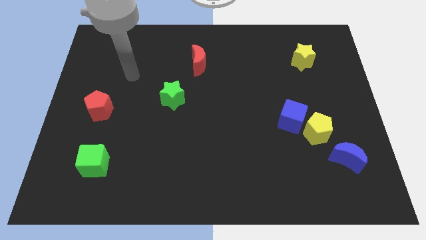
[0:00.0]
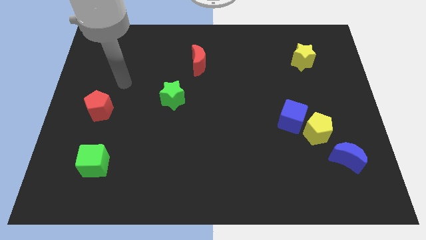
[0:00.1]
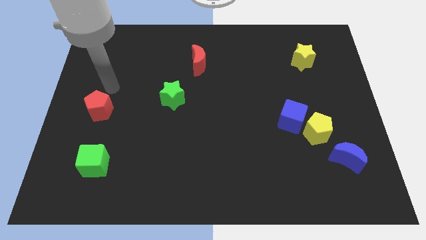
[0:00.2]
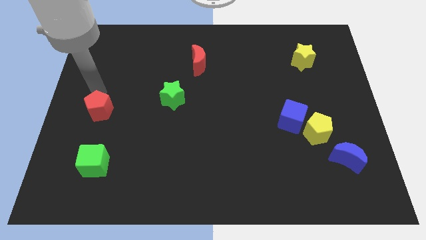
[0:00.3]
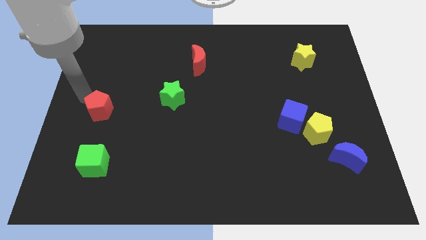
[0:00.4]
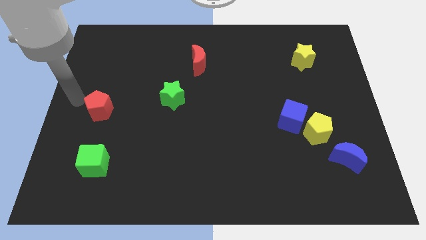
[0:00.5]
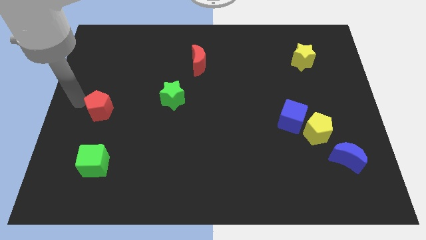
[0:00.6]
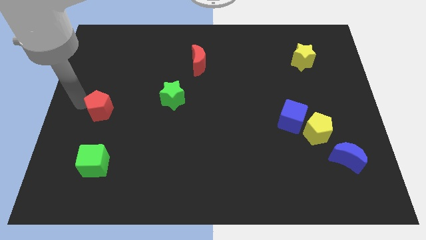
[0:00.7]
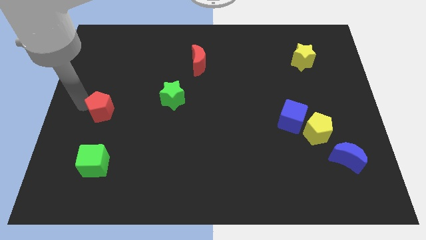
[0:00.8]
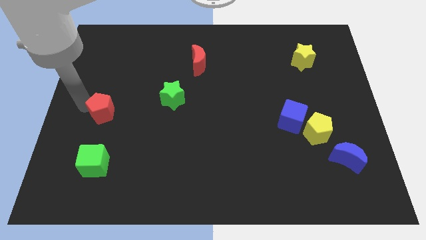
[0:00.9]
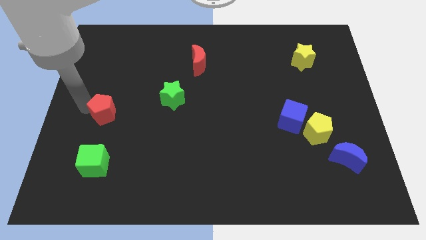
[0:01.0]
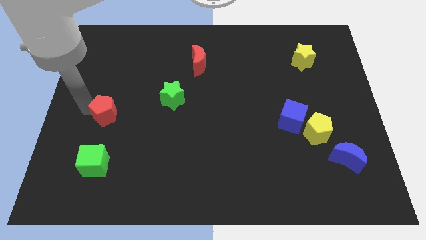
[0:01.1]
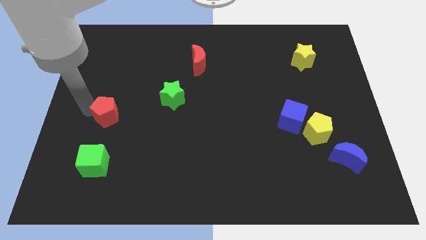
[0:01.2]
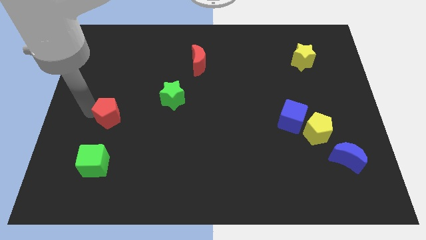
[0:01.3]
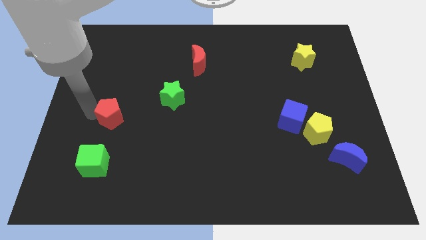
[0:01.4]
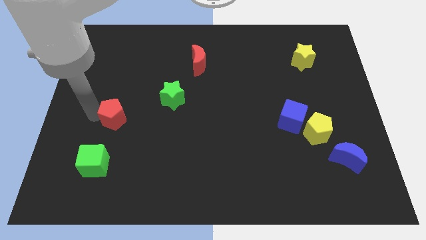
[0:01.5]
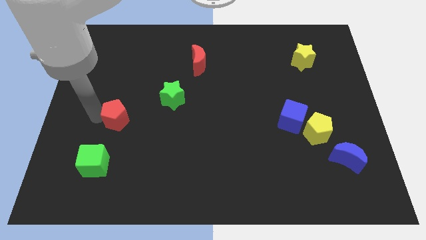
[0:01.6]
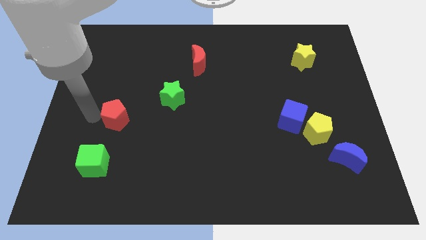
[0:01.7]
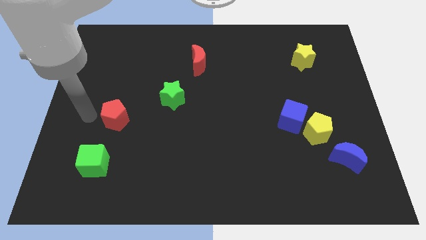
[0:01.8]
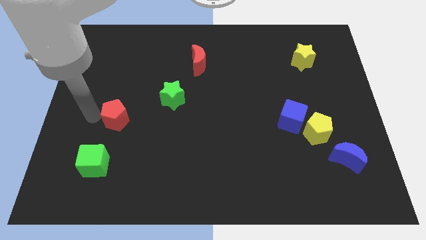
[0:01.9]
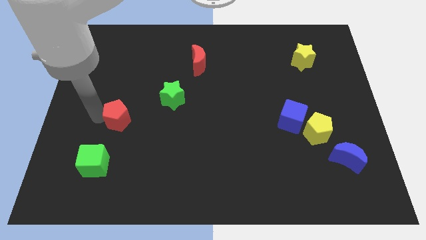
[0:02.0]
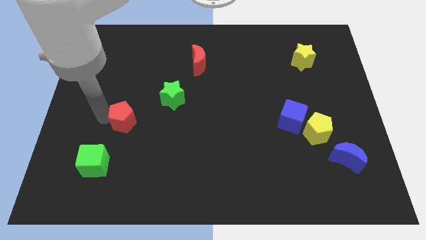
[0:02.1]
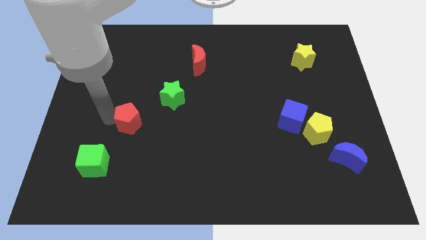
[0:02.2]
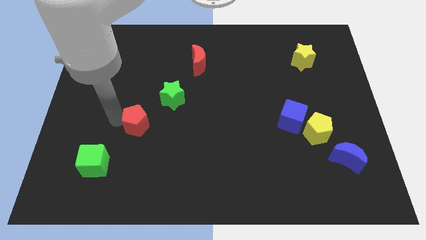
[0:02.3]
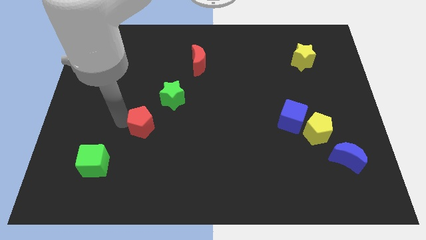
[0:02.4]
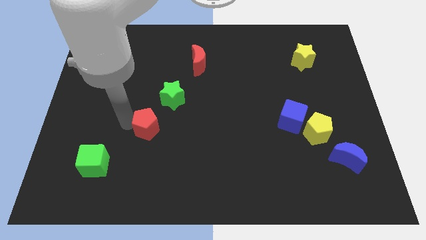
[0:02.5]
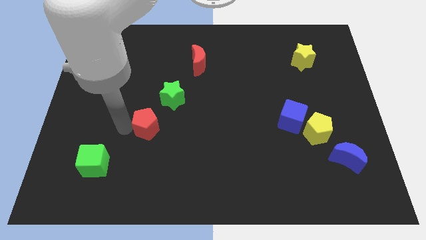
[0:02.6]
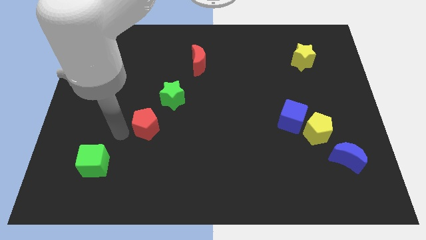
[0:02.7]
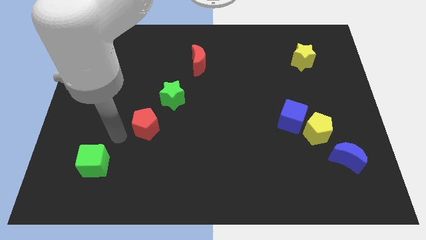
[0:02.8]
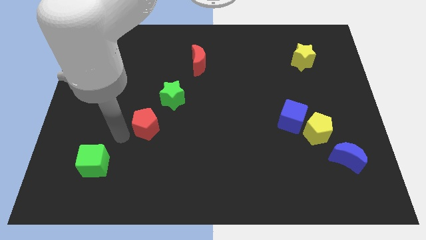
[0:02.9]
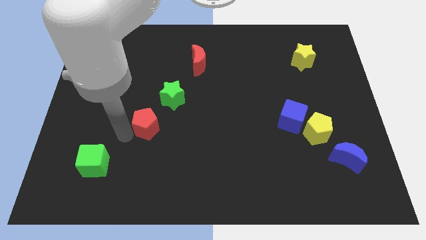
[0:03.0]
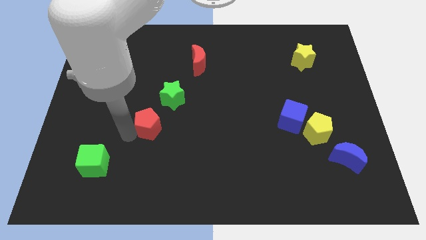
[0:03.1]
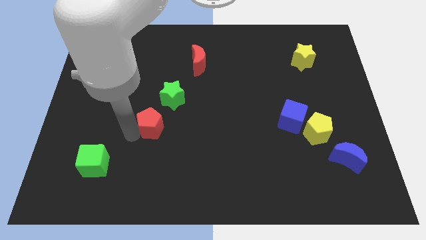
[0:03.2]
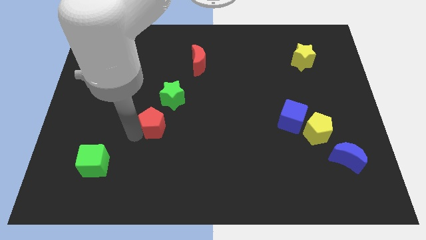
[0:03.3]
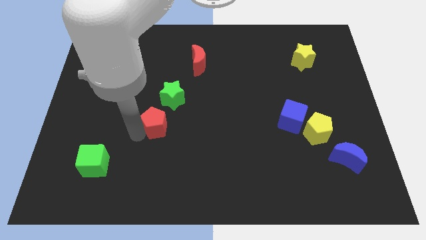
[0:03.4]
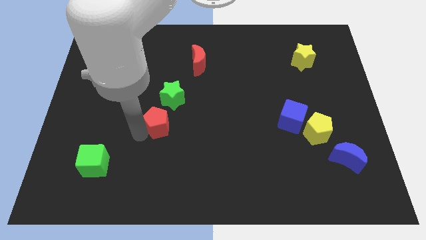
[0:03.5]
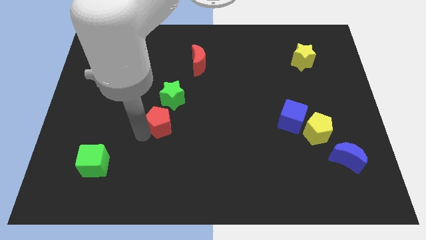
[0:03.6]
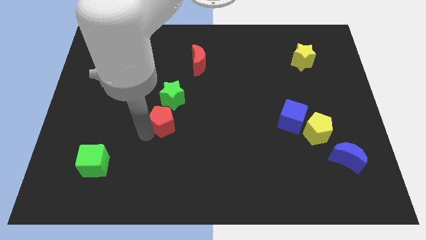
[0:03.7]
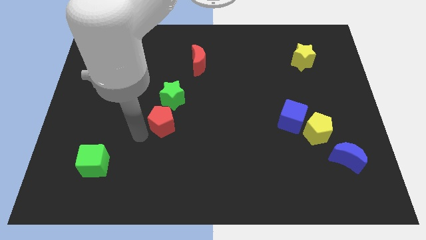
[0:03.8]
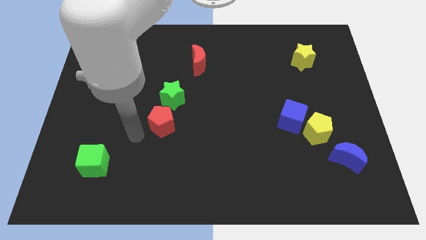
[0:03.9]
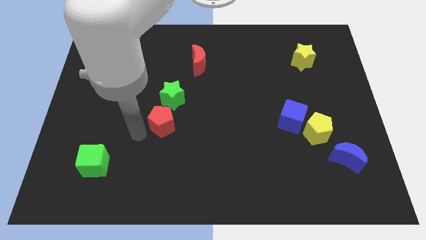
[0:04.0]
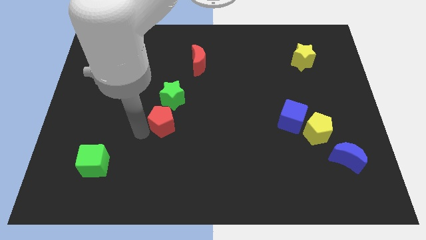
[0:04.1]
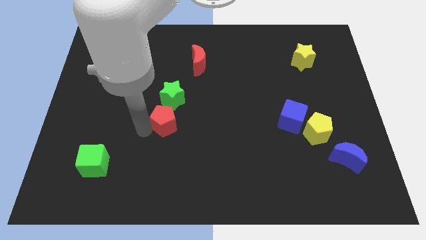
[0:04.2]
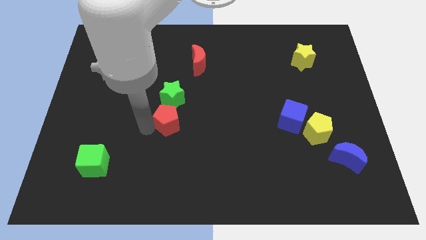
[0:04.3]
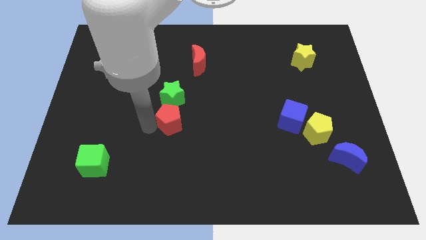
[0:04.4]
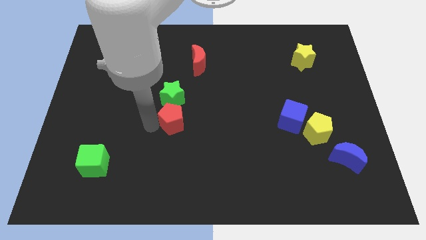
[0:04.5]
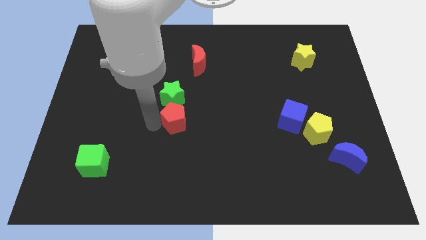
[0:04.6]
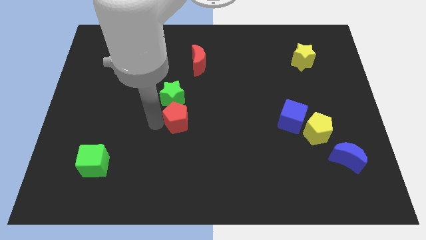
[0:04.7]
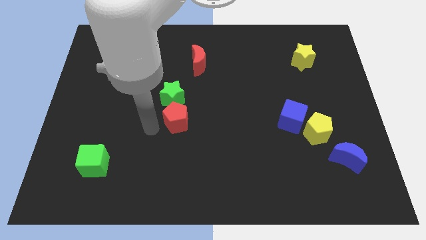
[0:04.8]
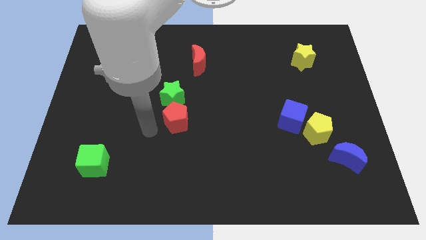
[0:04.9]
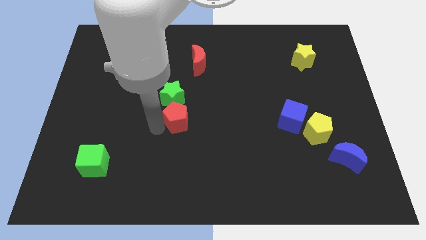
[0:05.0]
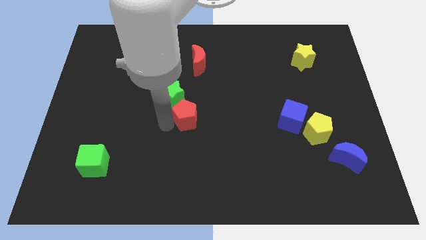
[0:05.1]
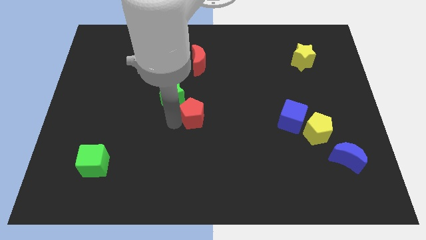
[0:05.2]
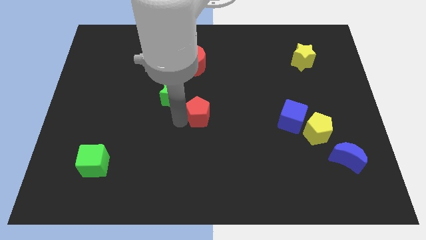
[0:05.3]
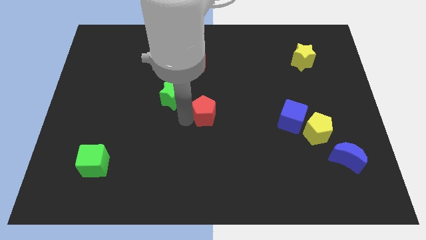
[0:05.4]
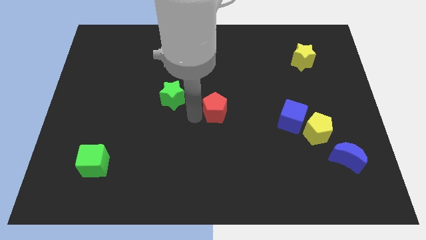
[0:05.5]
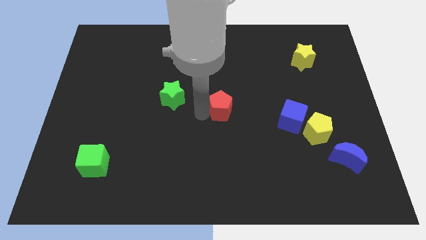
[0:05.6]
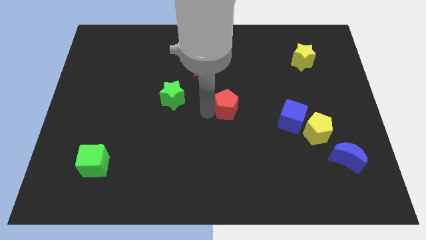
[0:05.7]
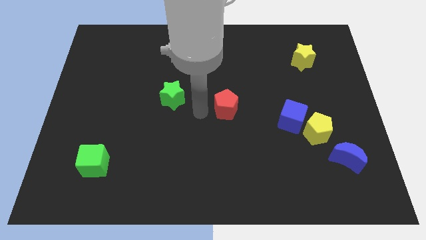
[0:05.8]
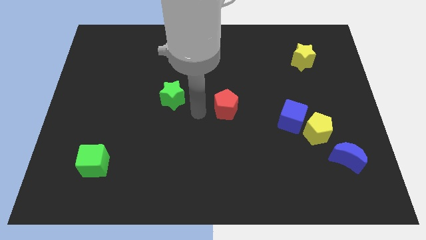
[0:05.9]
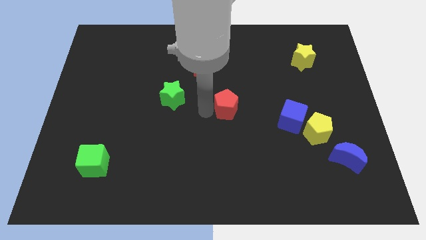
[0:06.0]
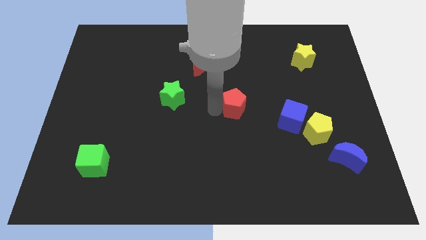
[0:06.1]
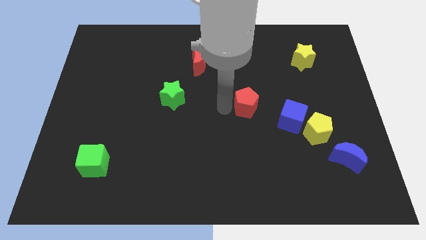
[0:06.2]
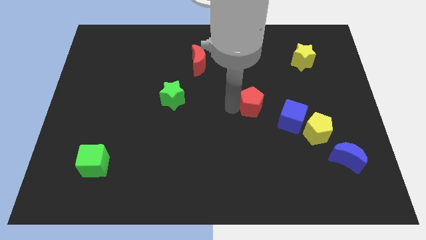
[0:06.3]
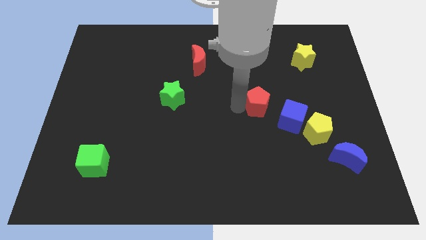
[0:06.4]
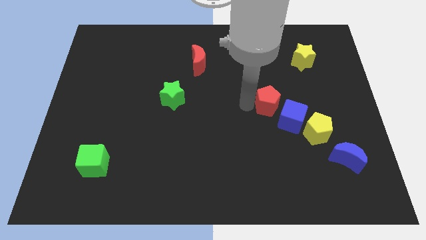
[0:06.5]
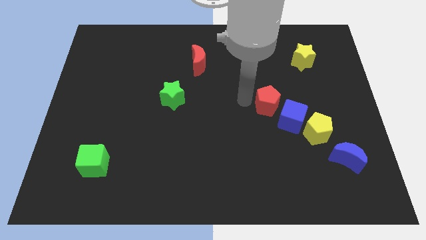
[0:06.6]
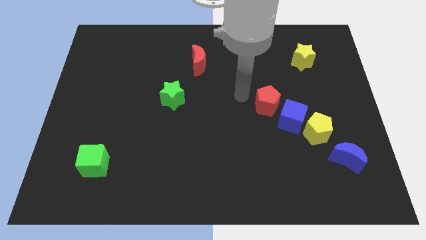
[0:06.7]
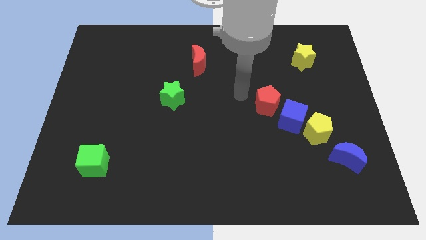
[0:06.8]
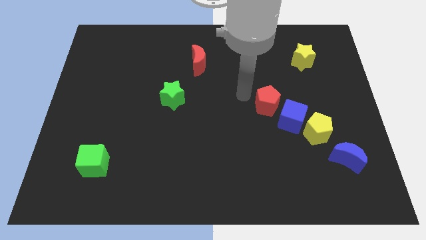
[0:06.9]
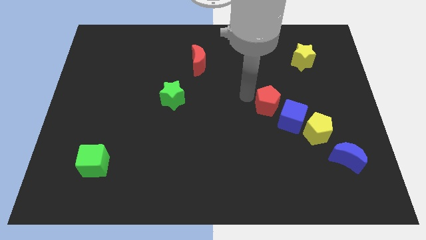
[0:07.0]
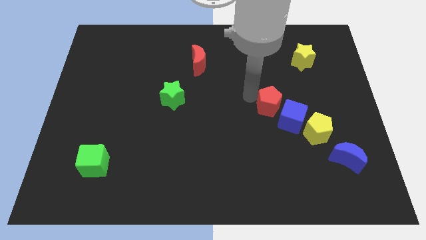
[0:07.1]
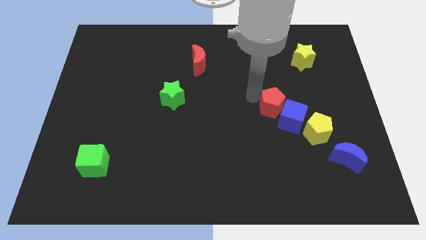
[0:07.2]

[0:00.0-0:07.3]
move the red pentagon diagonally up and to the left of the yellow pentagon

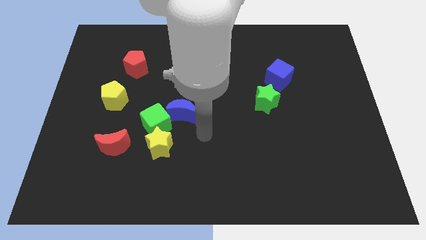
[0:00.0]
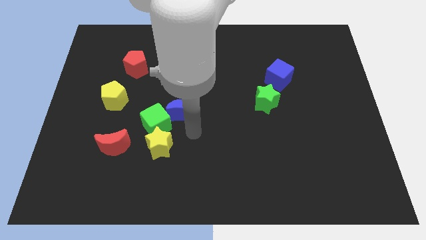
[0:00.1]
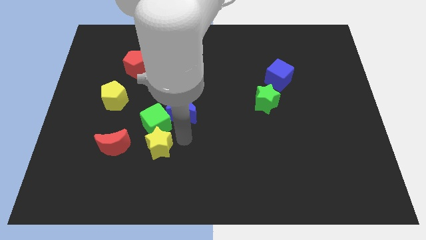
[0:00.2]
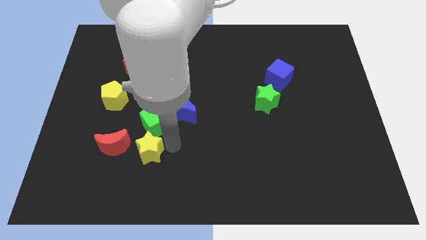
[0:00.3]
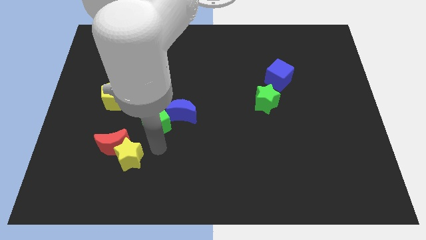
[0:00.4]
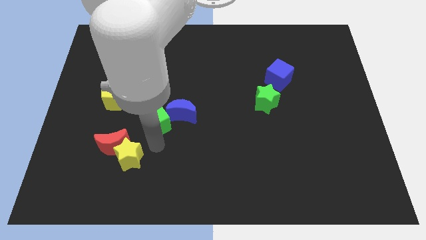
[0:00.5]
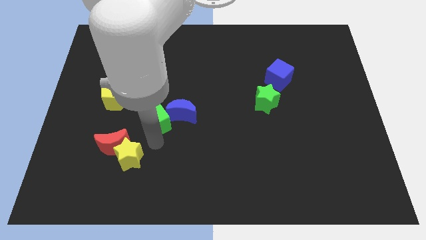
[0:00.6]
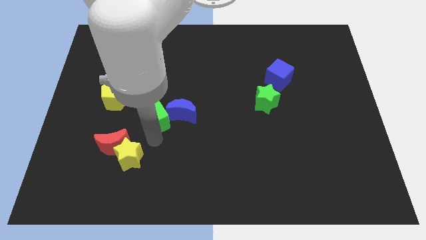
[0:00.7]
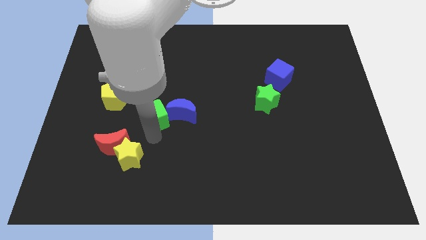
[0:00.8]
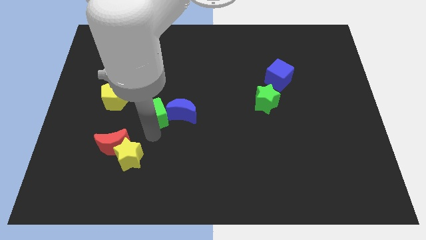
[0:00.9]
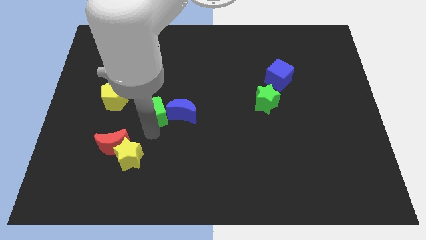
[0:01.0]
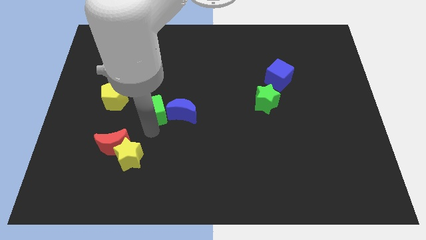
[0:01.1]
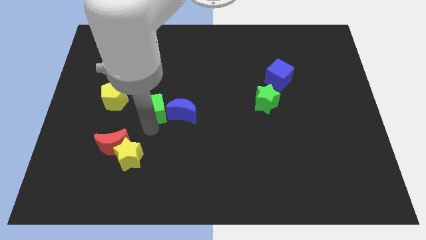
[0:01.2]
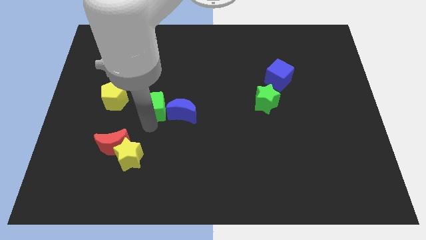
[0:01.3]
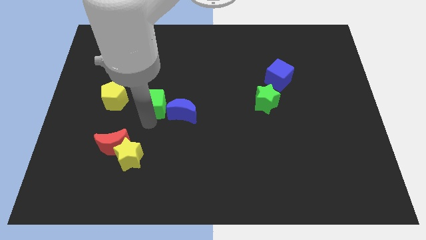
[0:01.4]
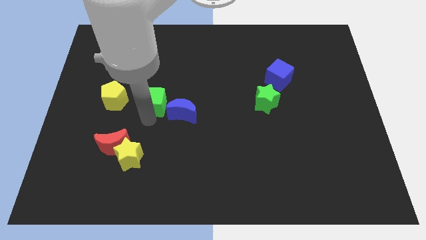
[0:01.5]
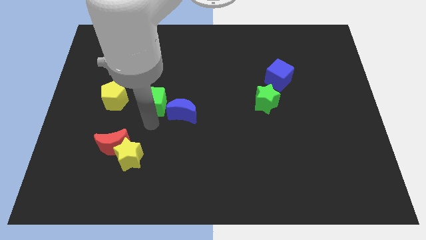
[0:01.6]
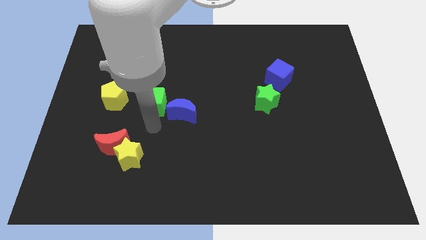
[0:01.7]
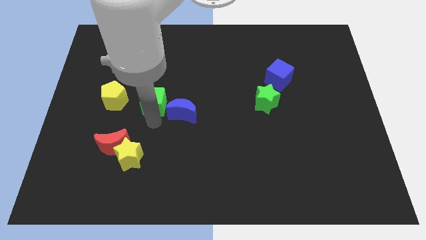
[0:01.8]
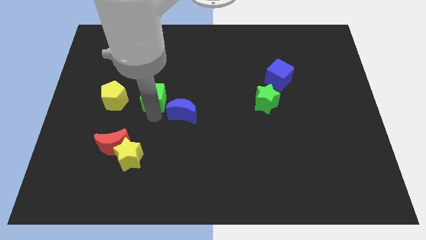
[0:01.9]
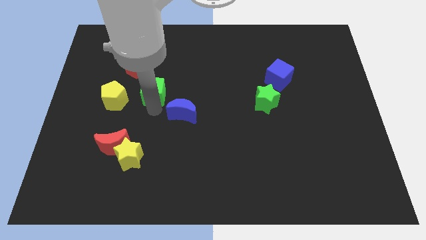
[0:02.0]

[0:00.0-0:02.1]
push the green cube to the bottom right of the red pentagon
